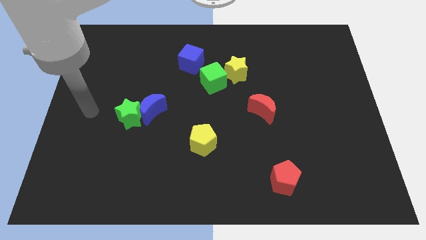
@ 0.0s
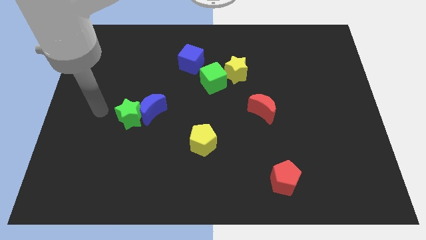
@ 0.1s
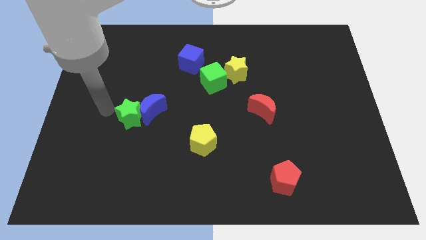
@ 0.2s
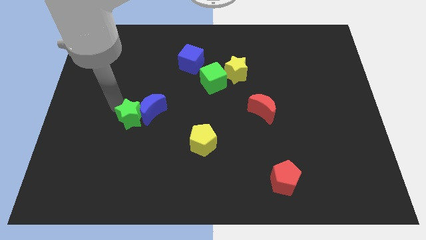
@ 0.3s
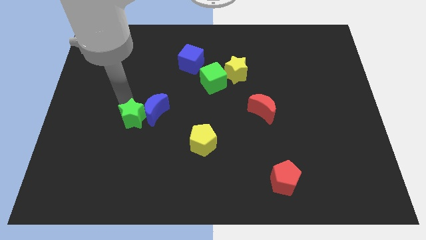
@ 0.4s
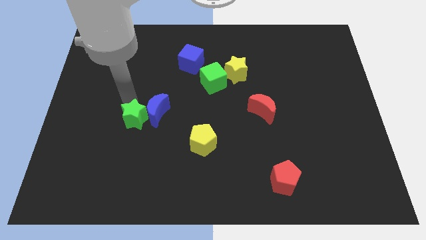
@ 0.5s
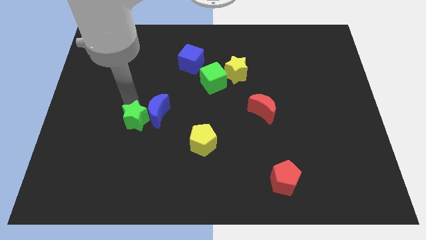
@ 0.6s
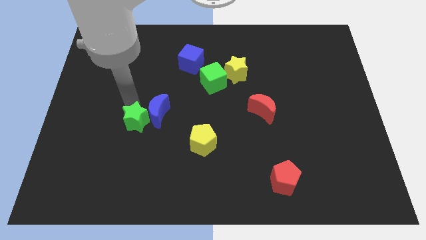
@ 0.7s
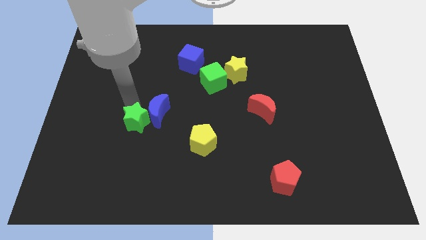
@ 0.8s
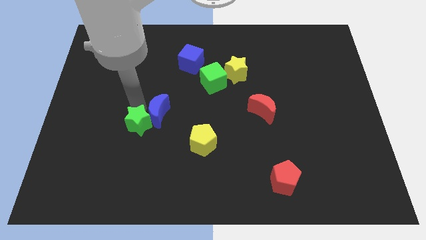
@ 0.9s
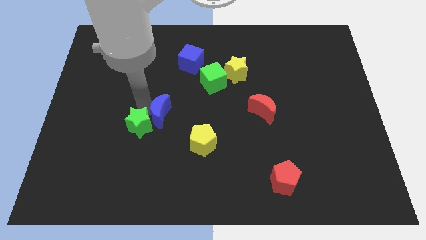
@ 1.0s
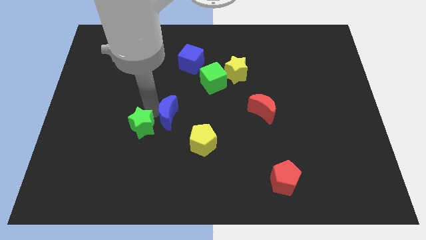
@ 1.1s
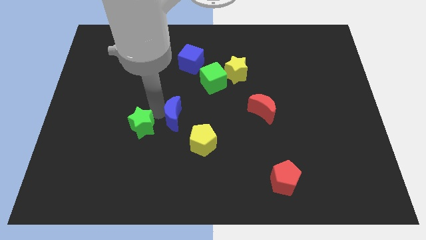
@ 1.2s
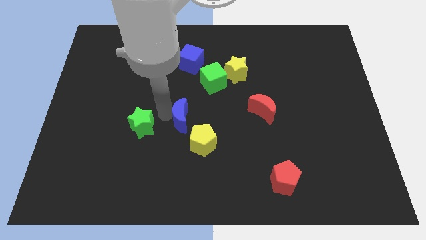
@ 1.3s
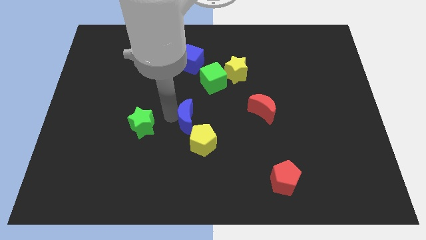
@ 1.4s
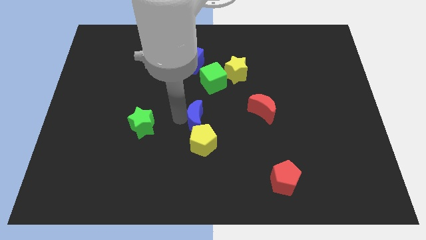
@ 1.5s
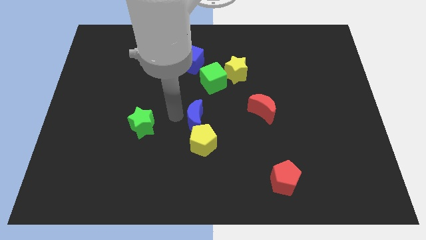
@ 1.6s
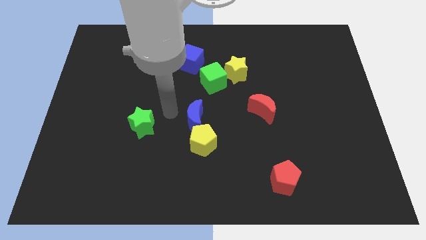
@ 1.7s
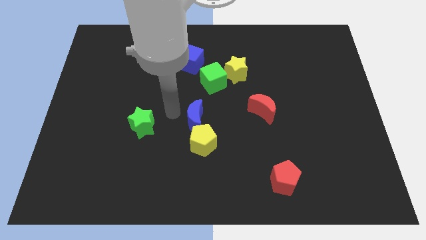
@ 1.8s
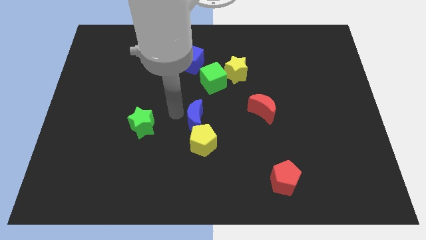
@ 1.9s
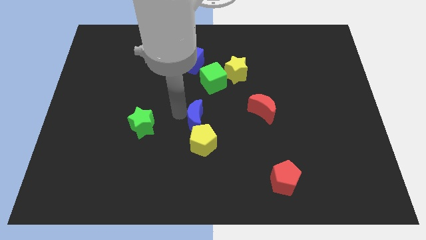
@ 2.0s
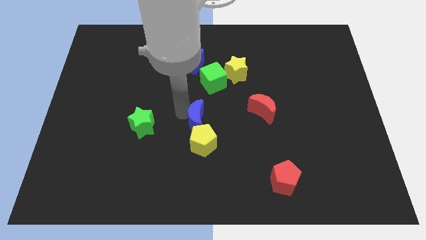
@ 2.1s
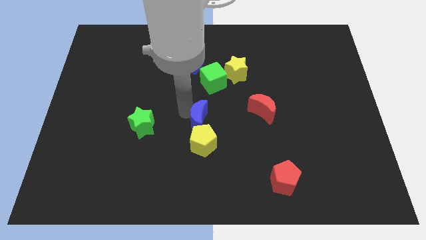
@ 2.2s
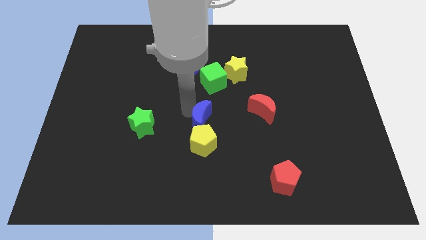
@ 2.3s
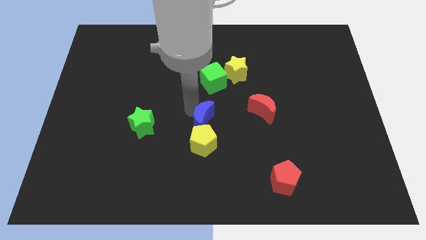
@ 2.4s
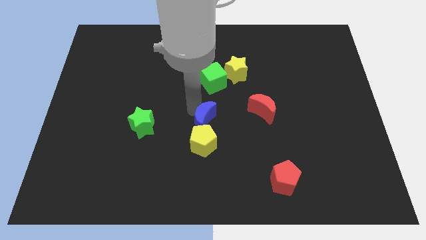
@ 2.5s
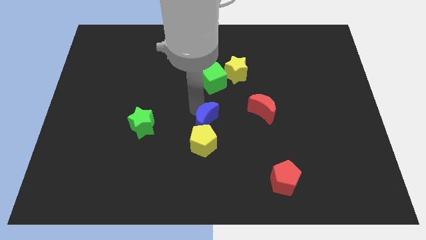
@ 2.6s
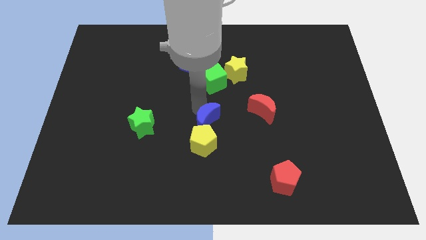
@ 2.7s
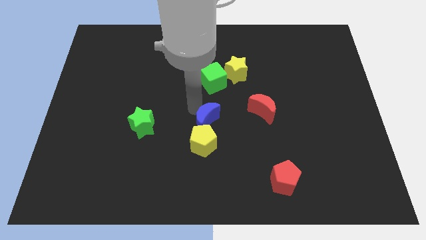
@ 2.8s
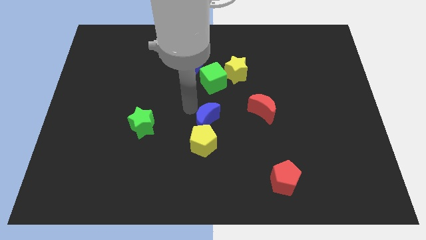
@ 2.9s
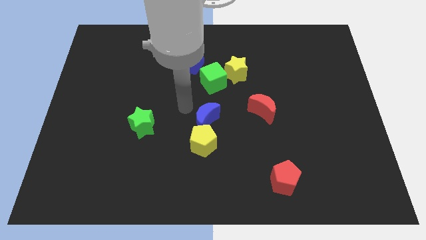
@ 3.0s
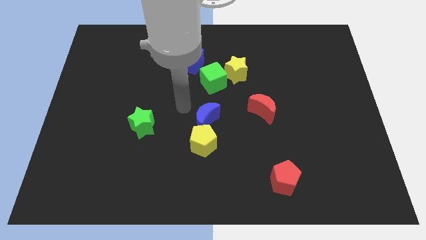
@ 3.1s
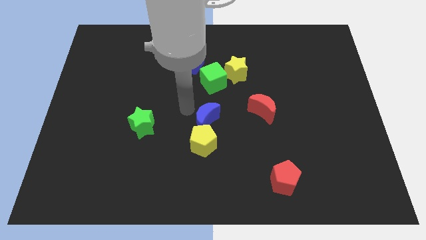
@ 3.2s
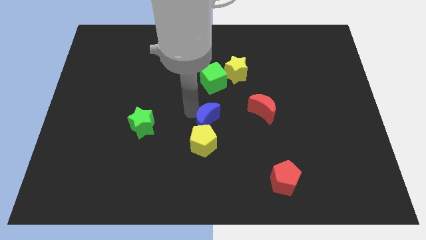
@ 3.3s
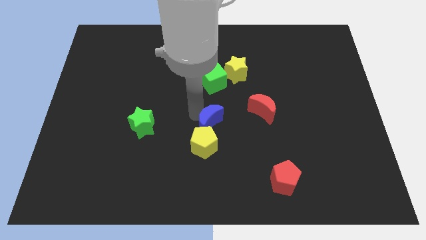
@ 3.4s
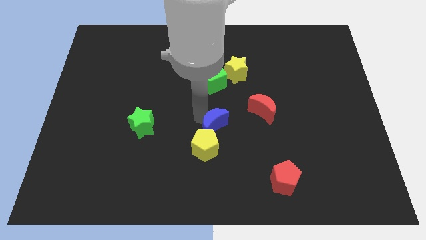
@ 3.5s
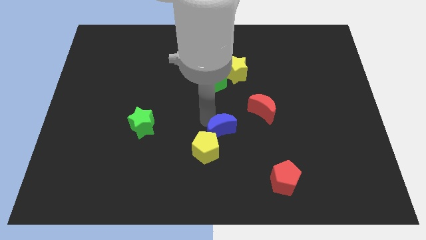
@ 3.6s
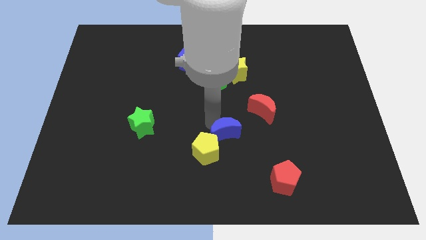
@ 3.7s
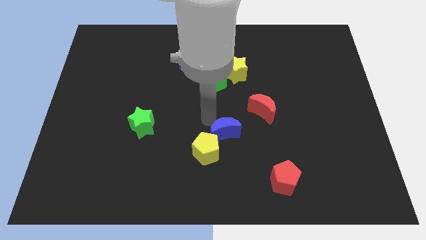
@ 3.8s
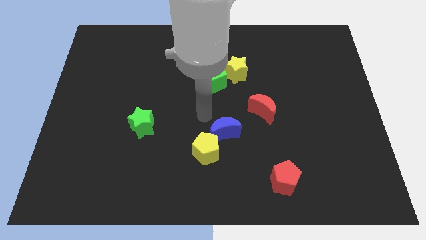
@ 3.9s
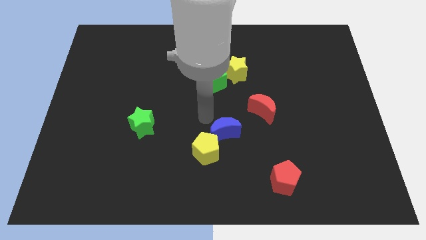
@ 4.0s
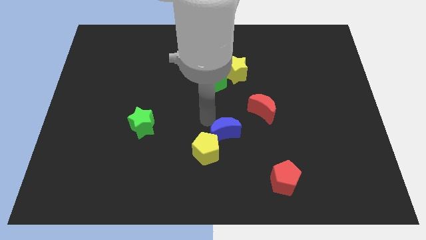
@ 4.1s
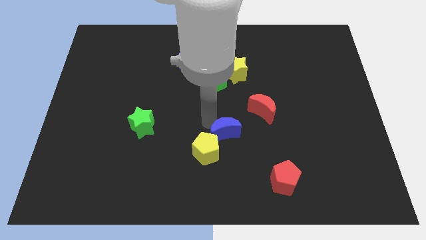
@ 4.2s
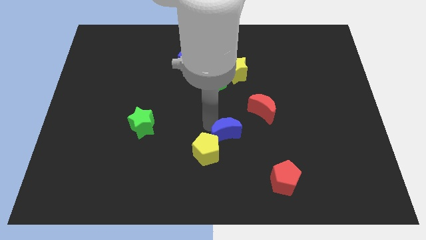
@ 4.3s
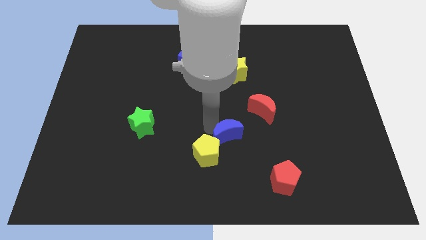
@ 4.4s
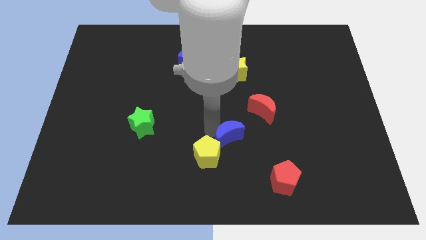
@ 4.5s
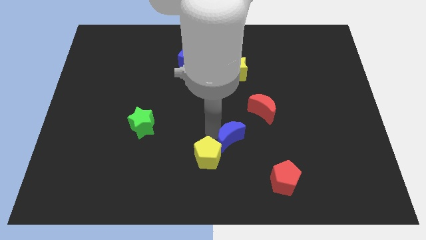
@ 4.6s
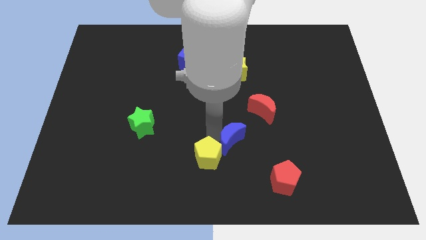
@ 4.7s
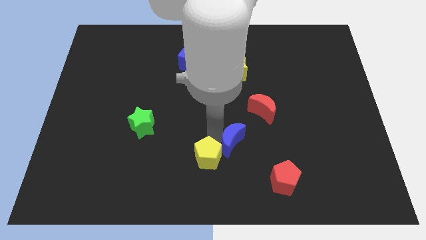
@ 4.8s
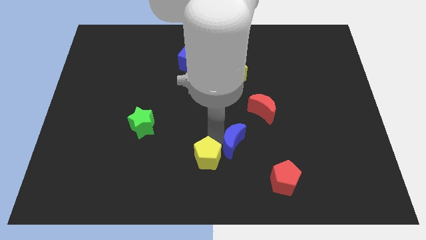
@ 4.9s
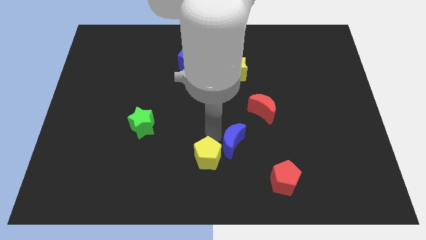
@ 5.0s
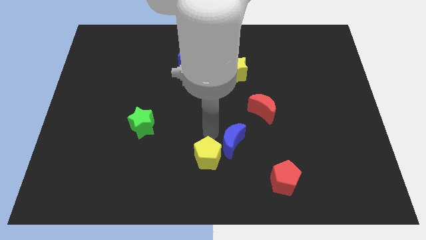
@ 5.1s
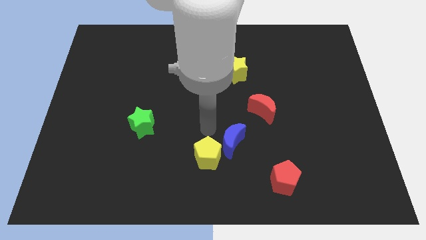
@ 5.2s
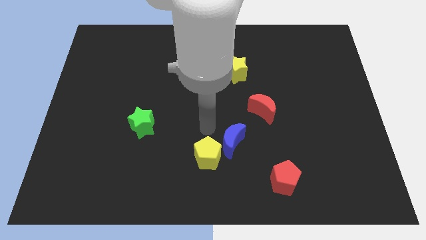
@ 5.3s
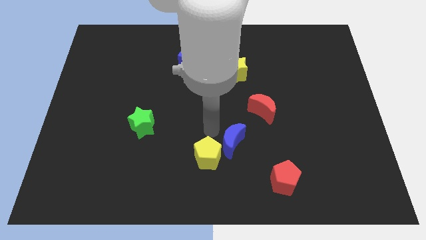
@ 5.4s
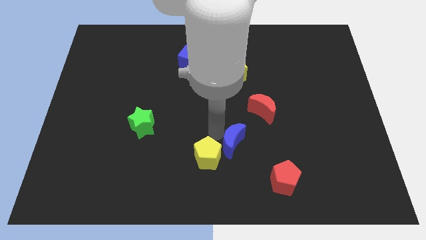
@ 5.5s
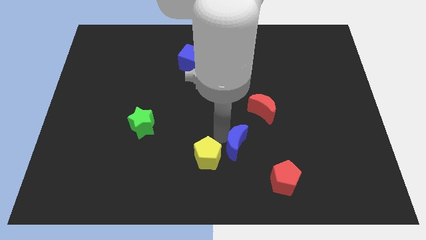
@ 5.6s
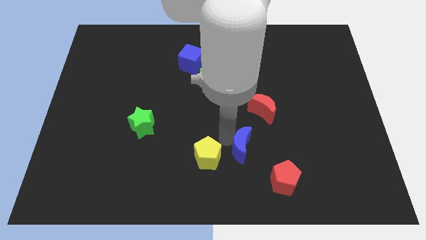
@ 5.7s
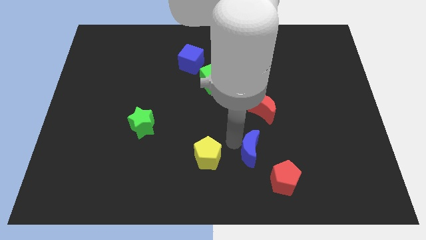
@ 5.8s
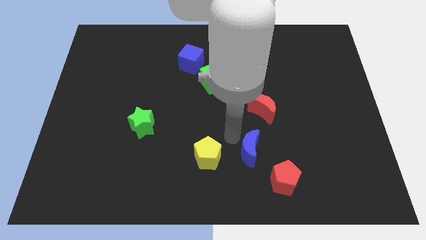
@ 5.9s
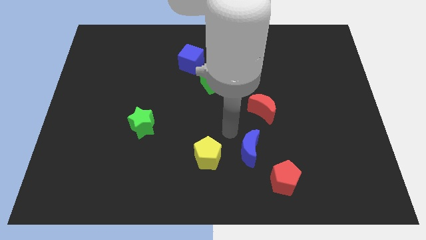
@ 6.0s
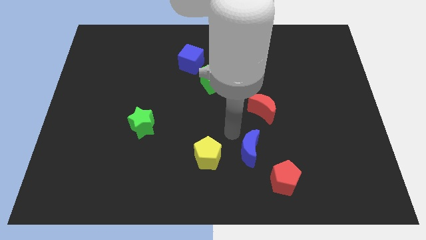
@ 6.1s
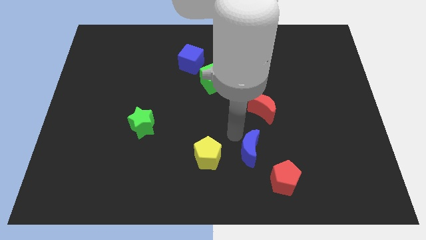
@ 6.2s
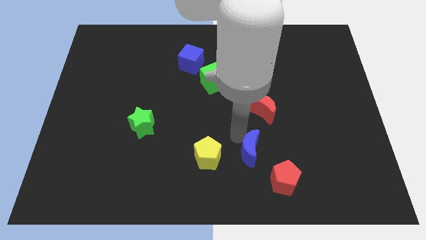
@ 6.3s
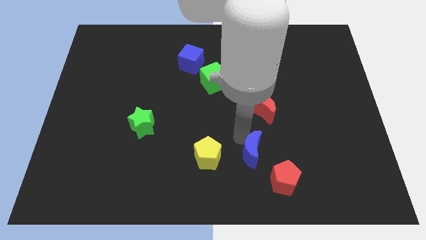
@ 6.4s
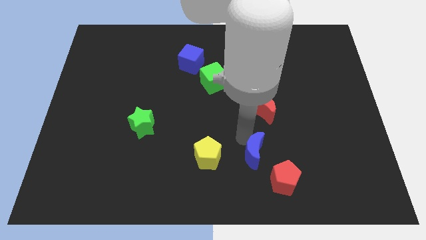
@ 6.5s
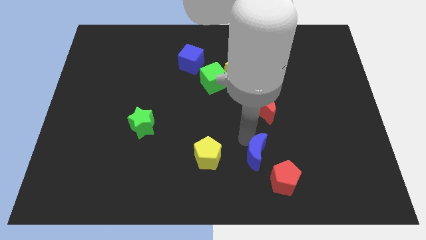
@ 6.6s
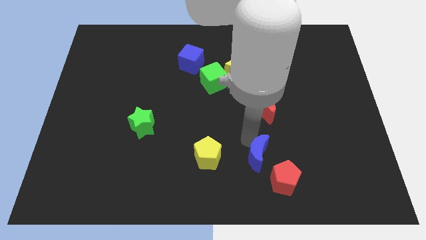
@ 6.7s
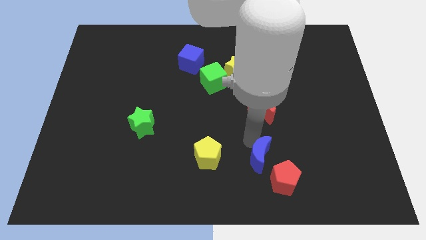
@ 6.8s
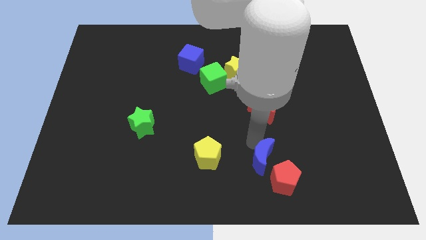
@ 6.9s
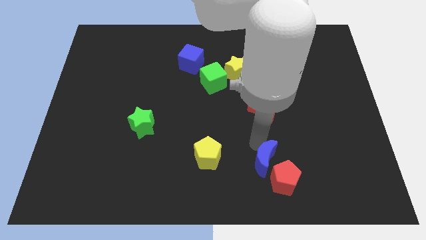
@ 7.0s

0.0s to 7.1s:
move the blue moon to the red pentagon

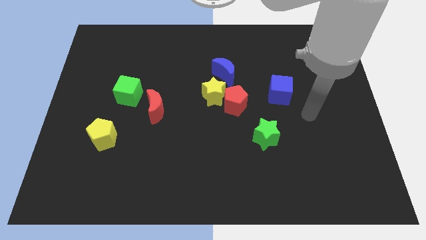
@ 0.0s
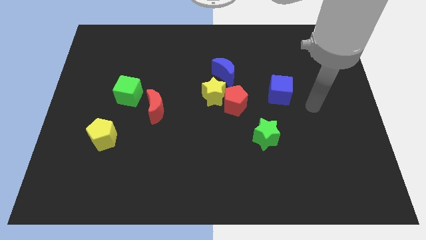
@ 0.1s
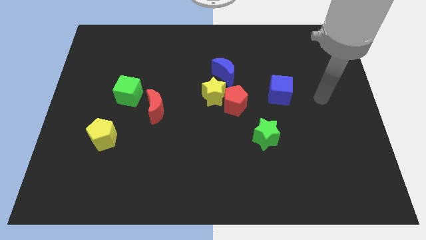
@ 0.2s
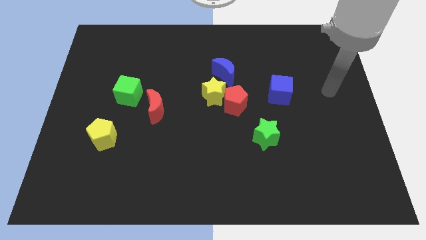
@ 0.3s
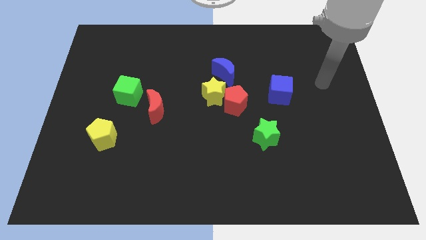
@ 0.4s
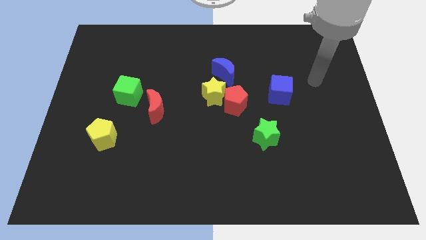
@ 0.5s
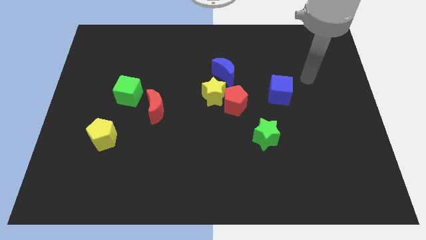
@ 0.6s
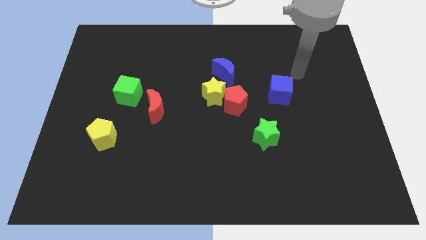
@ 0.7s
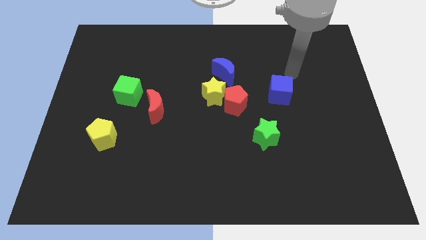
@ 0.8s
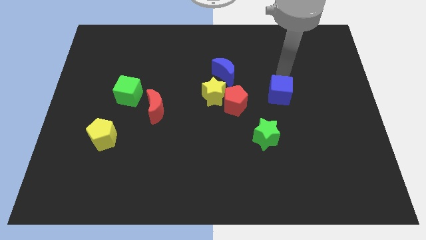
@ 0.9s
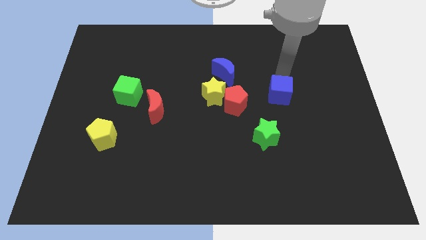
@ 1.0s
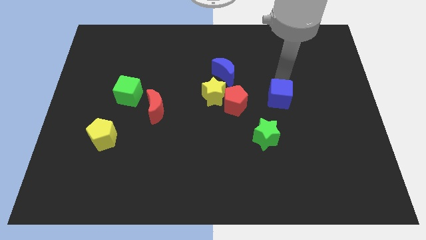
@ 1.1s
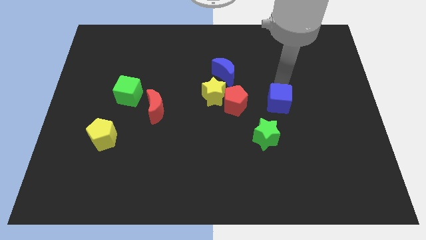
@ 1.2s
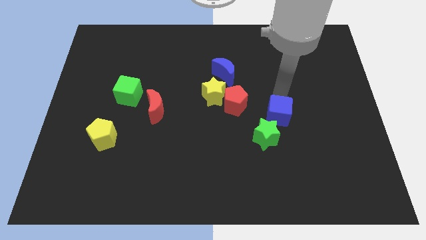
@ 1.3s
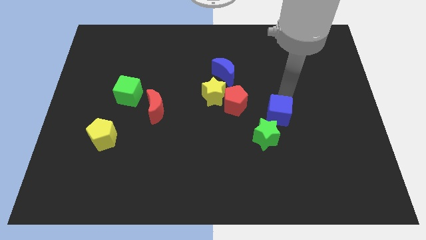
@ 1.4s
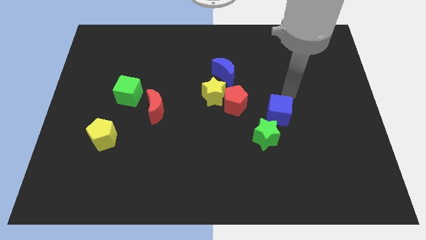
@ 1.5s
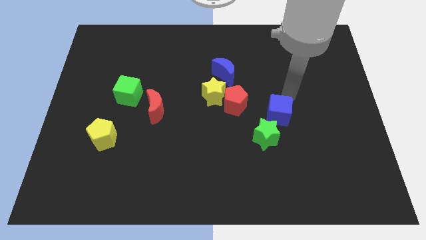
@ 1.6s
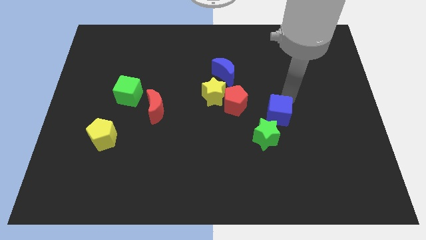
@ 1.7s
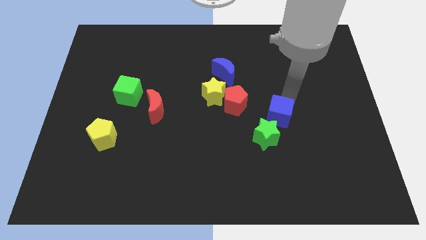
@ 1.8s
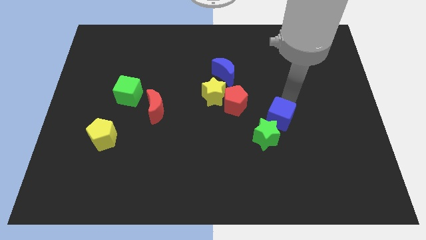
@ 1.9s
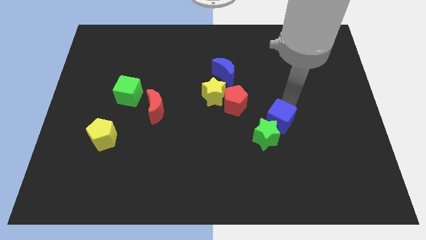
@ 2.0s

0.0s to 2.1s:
push the blue cube close to the green star
